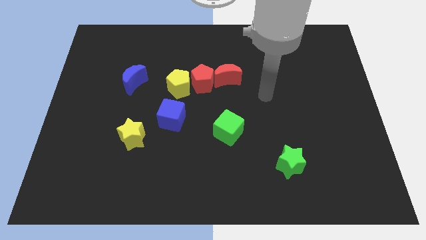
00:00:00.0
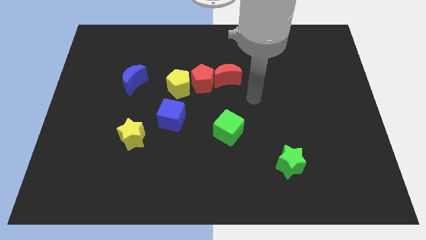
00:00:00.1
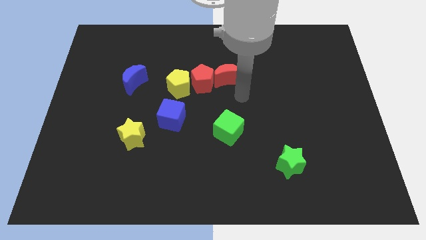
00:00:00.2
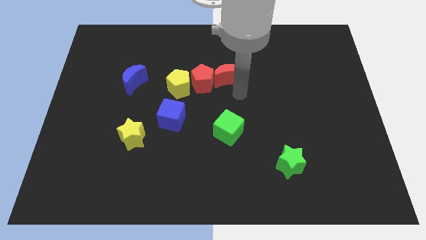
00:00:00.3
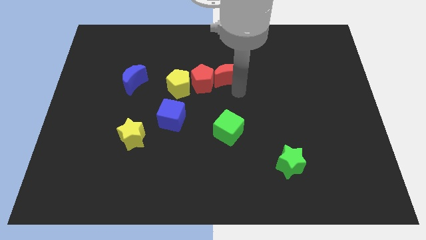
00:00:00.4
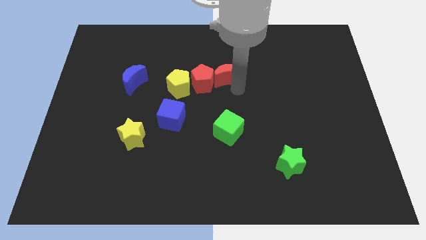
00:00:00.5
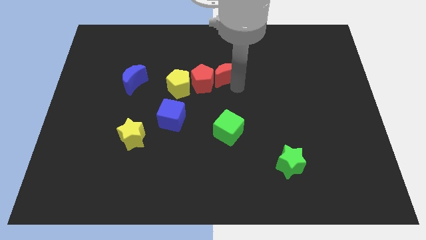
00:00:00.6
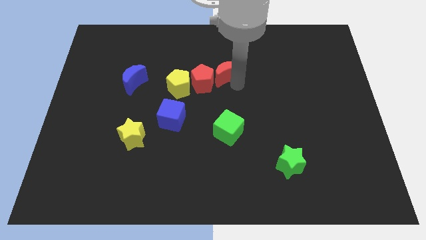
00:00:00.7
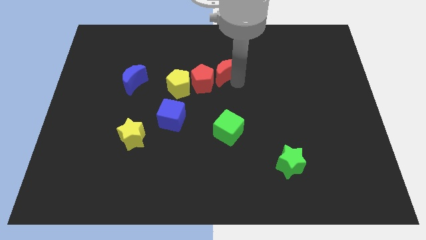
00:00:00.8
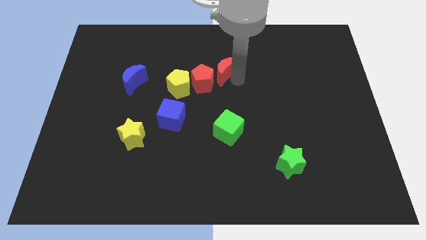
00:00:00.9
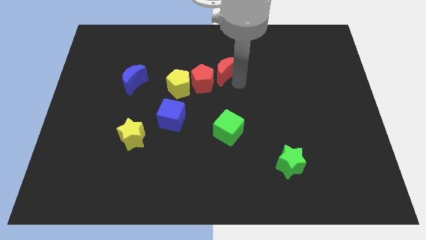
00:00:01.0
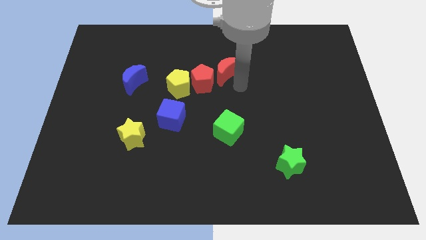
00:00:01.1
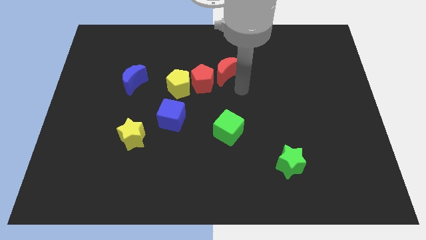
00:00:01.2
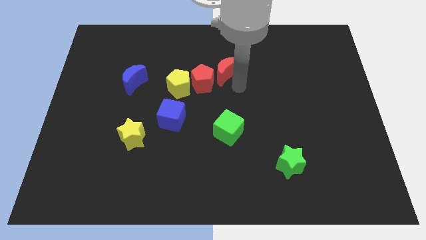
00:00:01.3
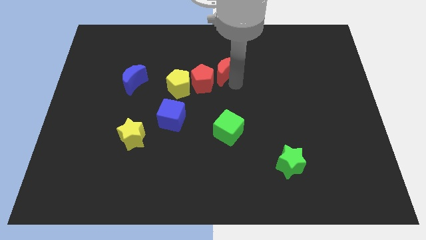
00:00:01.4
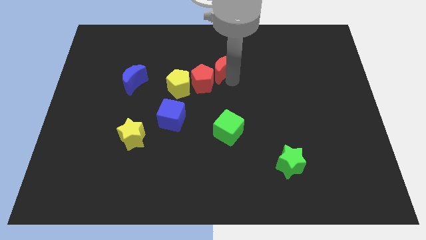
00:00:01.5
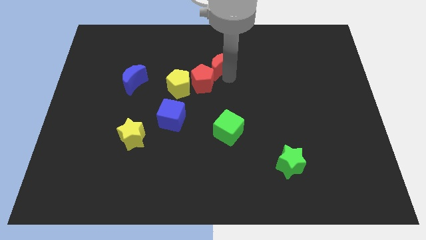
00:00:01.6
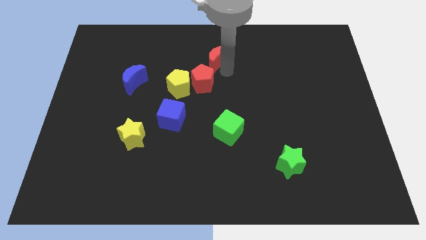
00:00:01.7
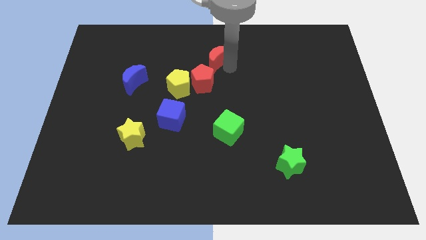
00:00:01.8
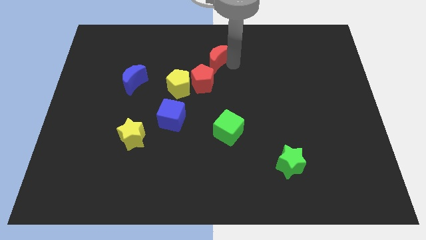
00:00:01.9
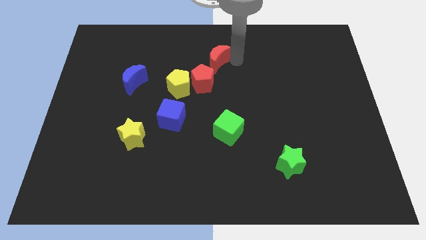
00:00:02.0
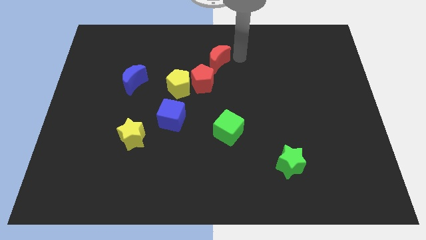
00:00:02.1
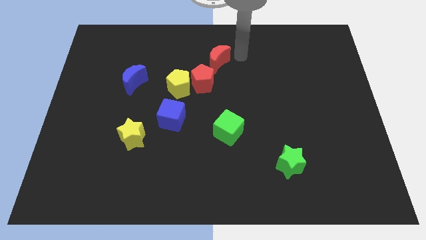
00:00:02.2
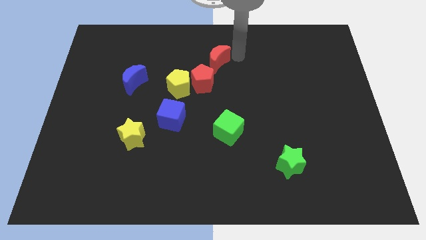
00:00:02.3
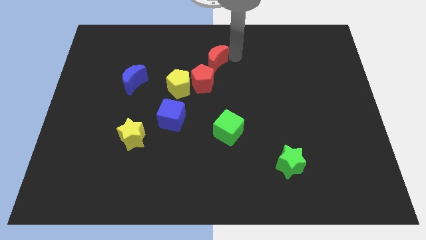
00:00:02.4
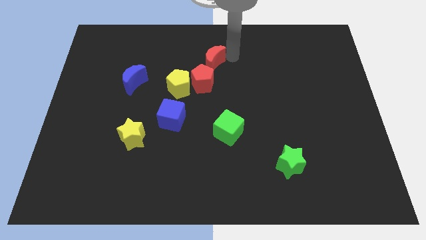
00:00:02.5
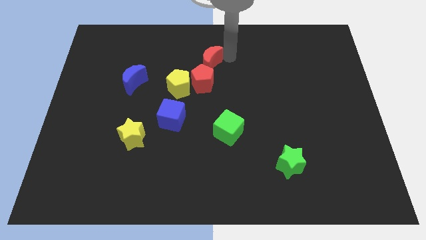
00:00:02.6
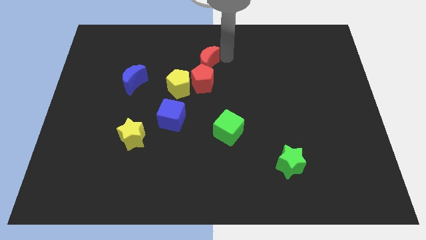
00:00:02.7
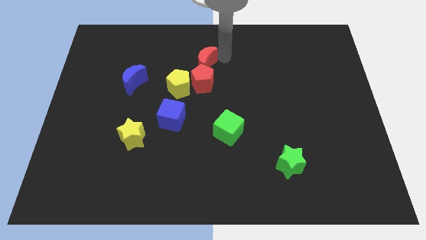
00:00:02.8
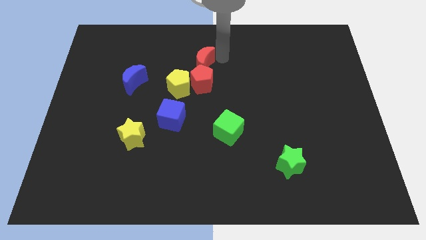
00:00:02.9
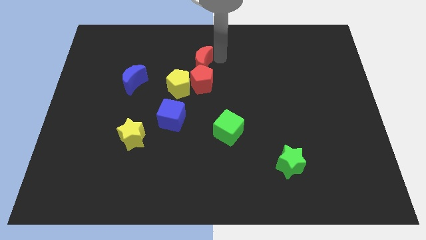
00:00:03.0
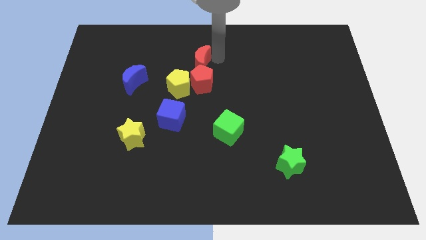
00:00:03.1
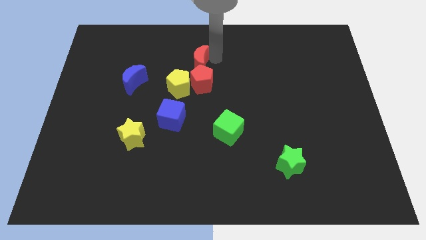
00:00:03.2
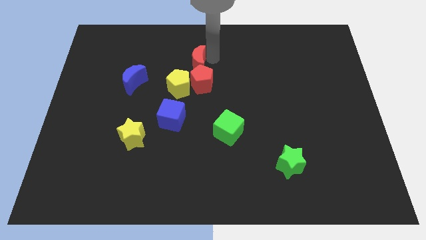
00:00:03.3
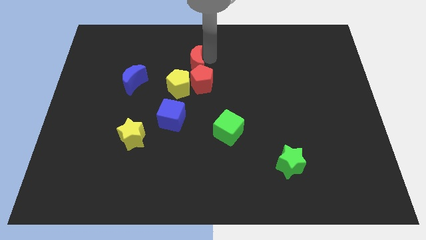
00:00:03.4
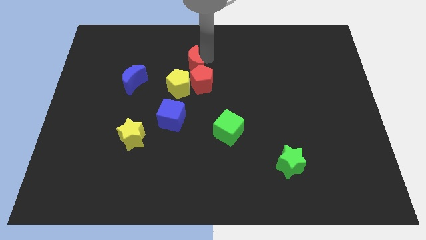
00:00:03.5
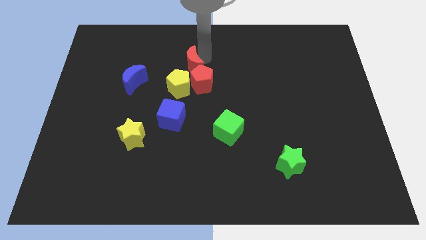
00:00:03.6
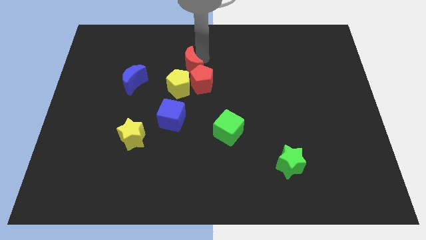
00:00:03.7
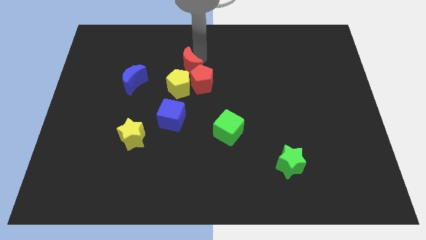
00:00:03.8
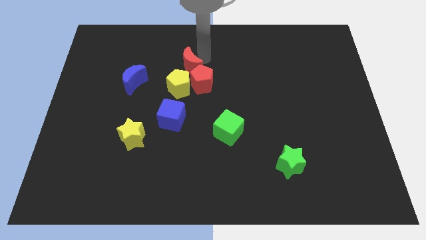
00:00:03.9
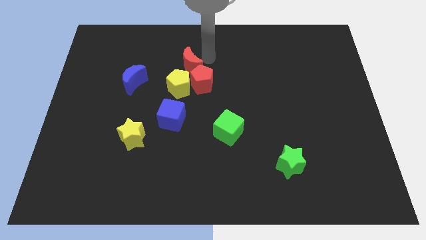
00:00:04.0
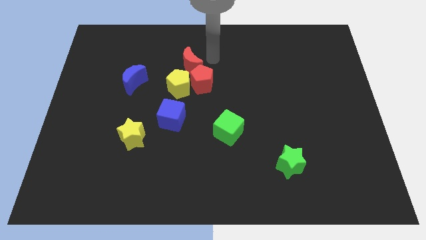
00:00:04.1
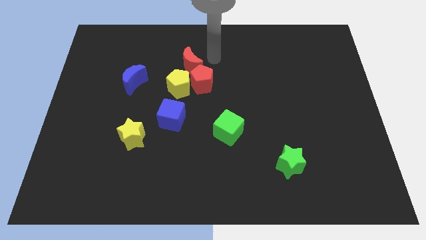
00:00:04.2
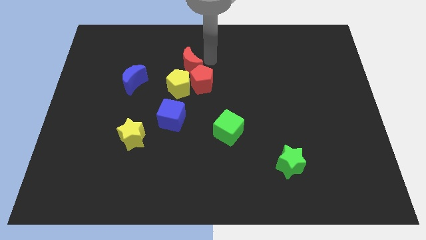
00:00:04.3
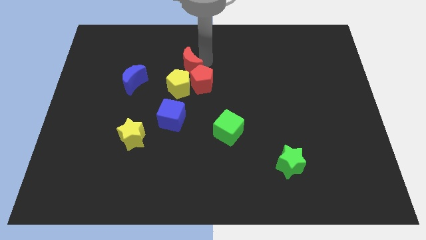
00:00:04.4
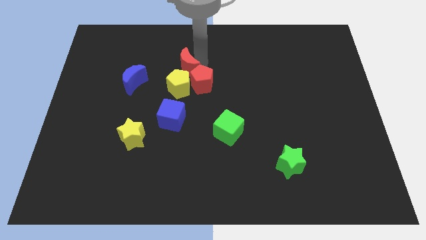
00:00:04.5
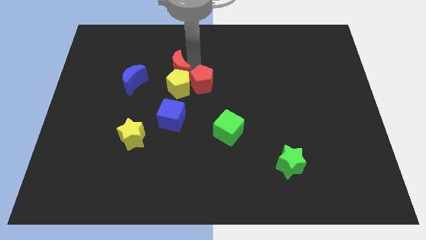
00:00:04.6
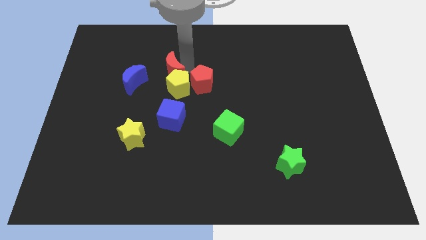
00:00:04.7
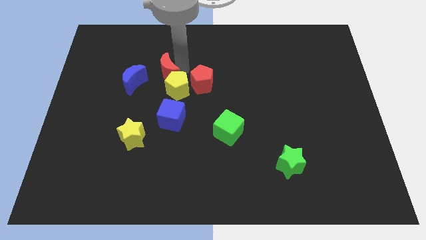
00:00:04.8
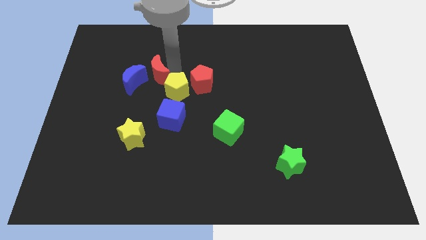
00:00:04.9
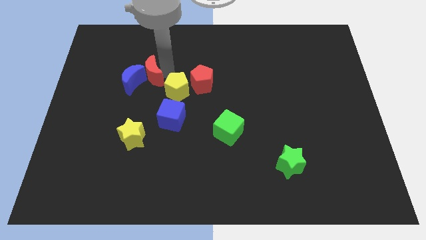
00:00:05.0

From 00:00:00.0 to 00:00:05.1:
slide the red moon close to the blue moon

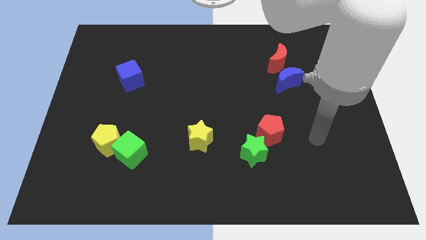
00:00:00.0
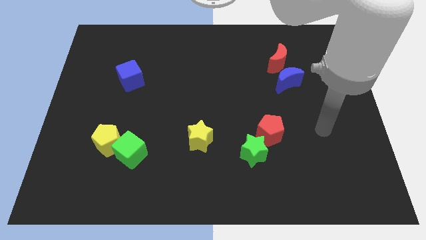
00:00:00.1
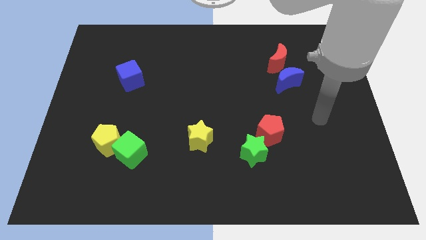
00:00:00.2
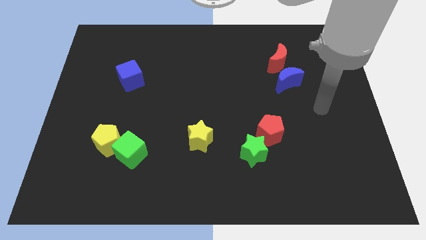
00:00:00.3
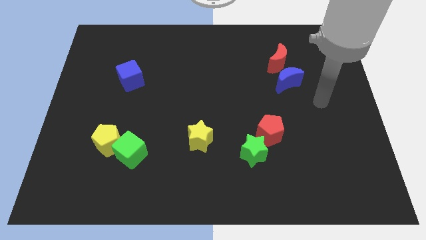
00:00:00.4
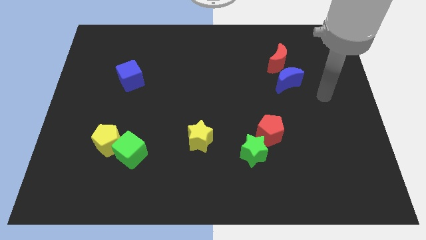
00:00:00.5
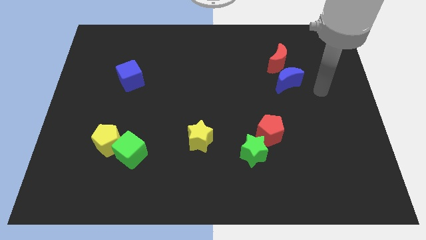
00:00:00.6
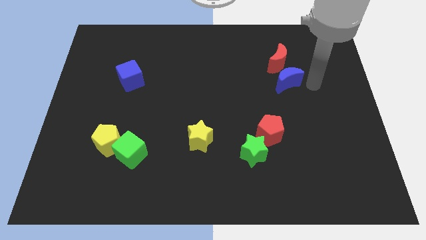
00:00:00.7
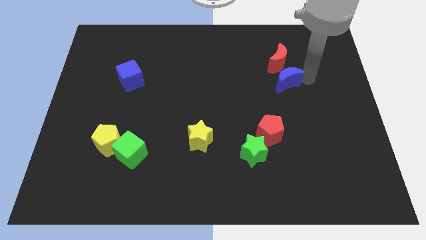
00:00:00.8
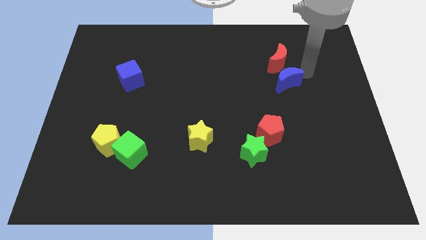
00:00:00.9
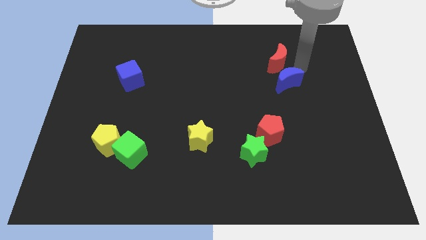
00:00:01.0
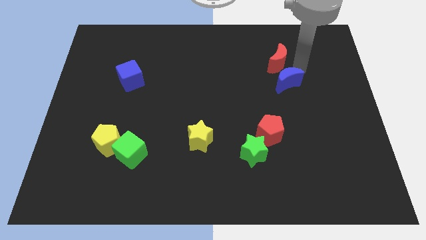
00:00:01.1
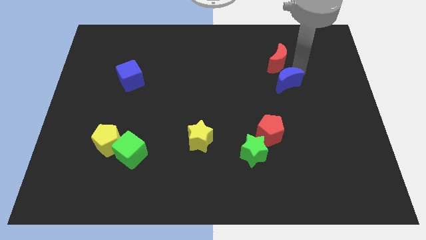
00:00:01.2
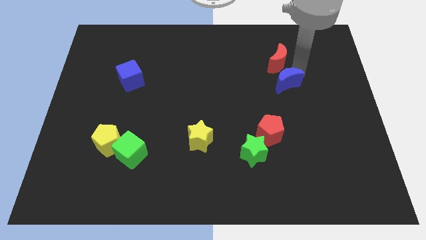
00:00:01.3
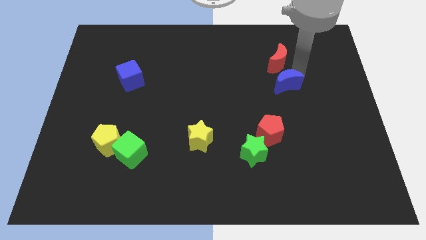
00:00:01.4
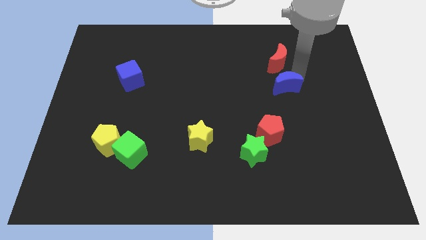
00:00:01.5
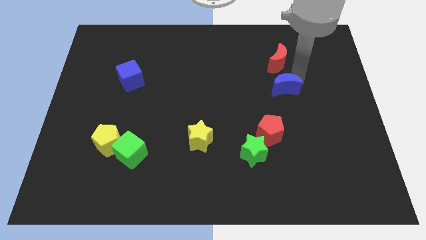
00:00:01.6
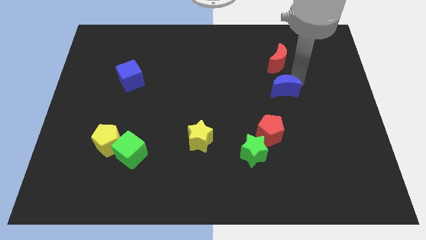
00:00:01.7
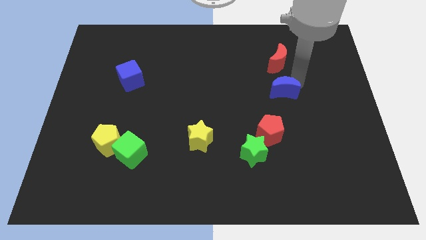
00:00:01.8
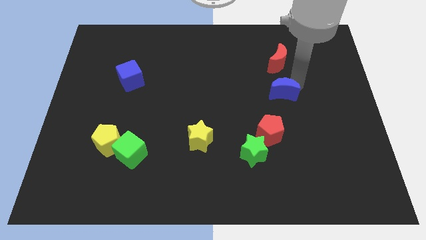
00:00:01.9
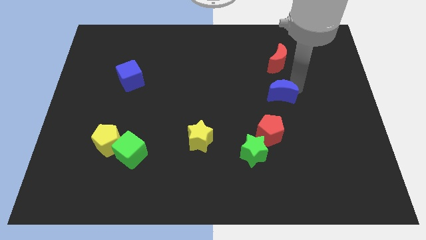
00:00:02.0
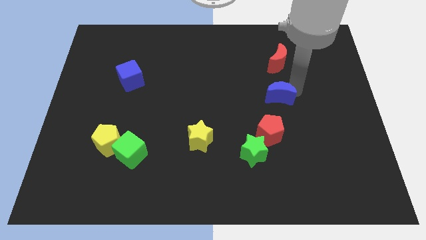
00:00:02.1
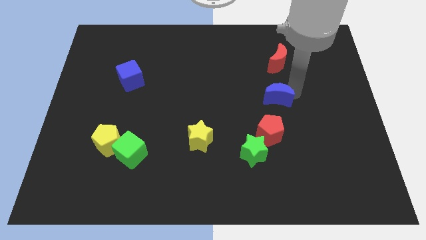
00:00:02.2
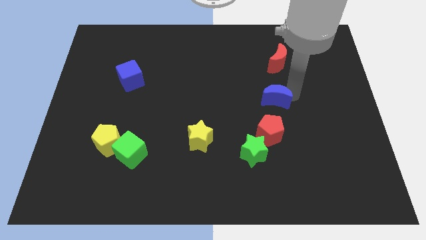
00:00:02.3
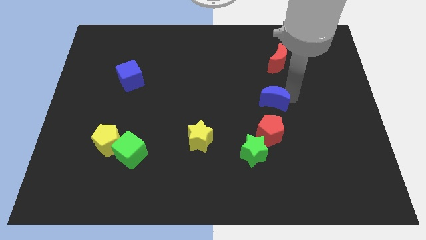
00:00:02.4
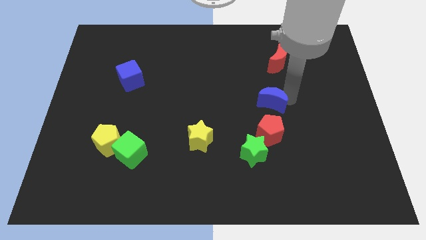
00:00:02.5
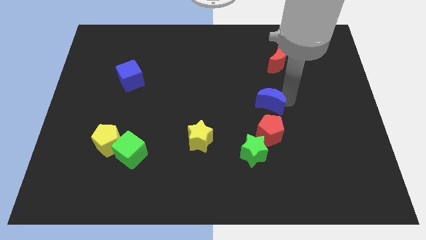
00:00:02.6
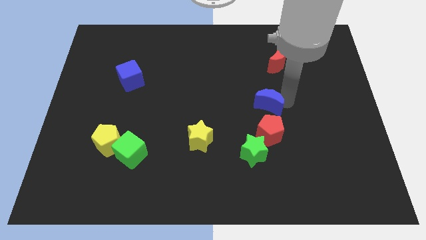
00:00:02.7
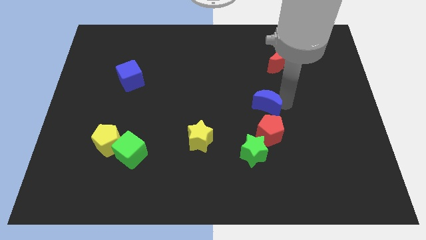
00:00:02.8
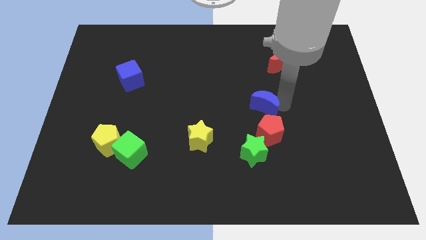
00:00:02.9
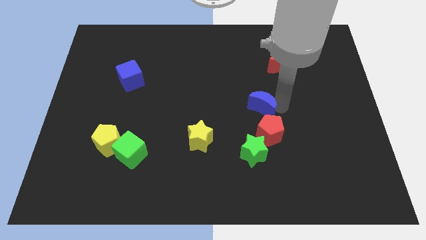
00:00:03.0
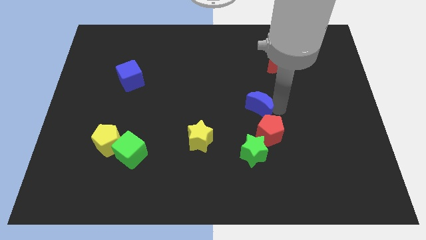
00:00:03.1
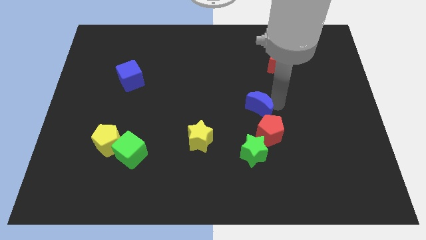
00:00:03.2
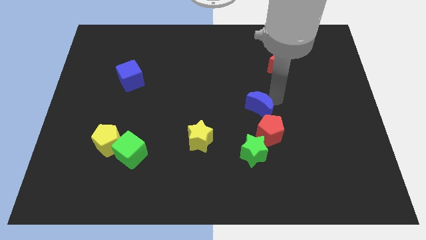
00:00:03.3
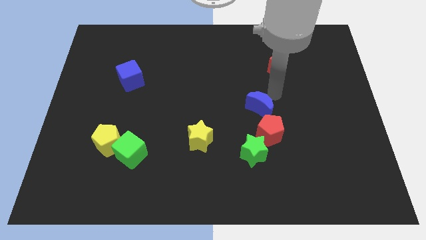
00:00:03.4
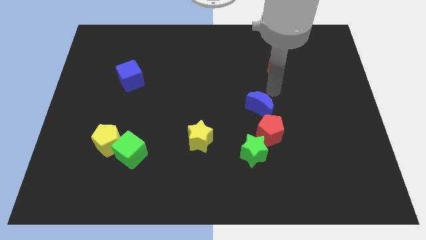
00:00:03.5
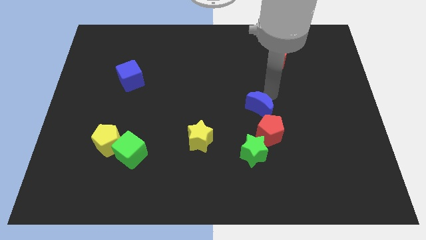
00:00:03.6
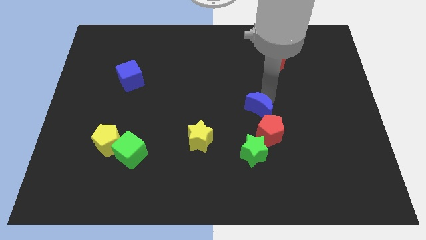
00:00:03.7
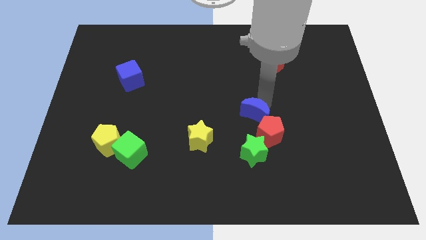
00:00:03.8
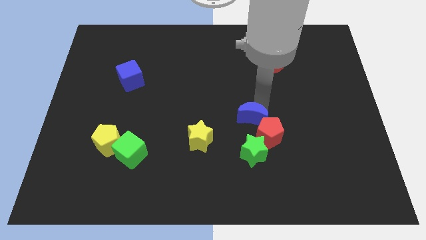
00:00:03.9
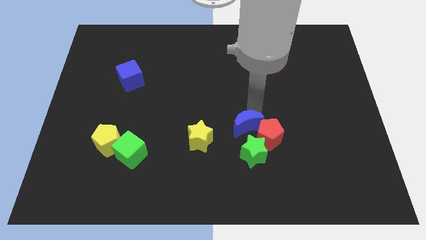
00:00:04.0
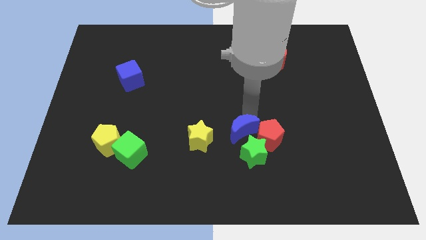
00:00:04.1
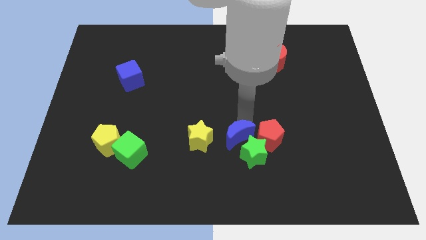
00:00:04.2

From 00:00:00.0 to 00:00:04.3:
put the blue moon next to the green star
